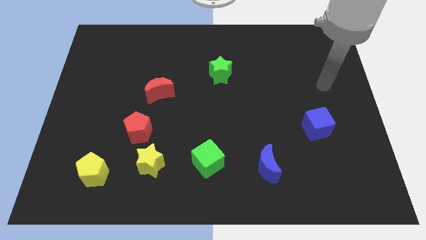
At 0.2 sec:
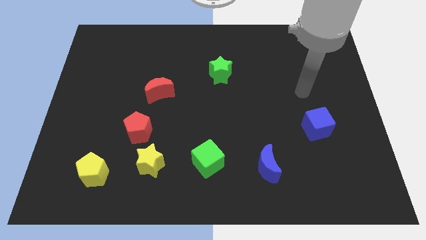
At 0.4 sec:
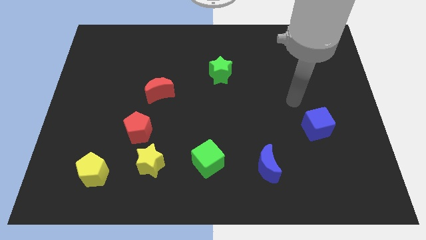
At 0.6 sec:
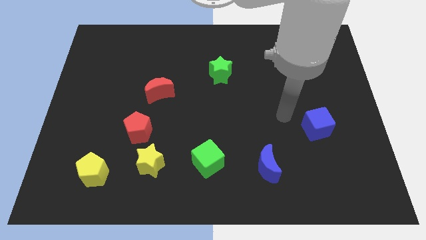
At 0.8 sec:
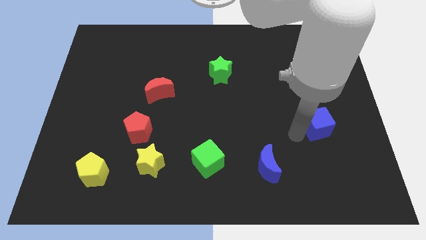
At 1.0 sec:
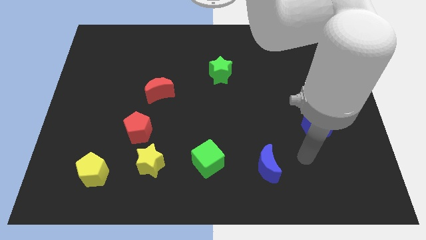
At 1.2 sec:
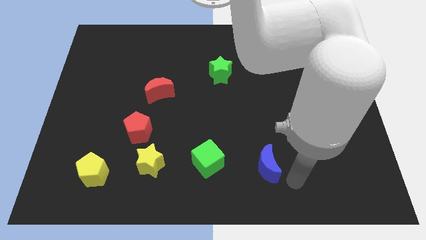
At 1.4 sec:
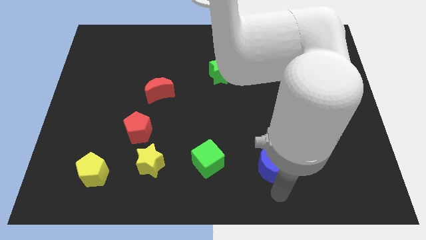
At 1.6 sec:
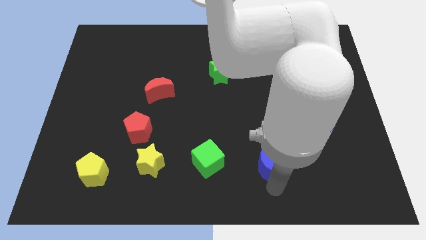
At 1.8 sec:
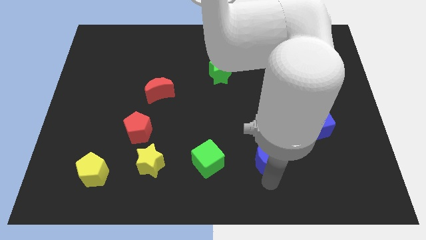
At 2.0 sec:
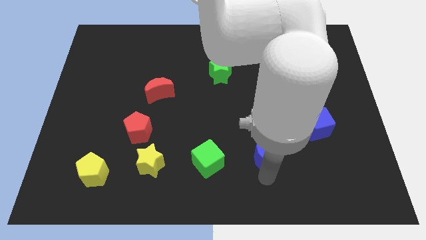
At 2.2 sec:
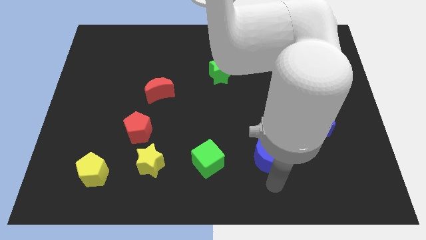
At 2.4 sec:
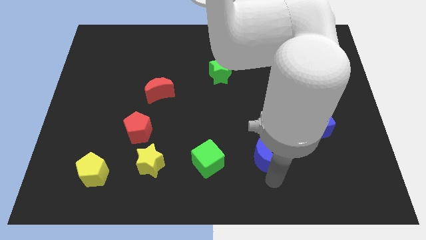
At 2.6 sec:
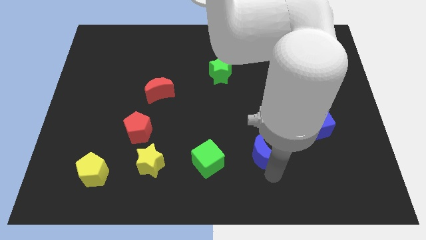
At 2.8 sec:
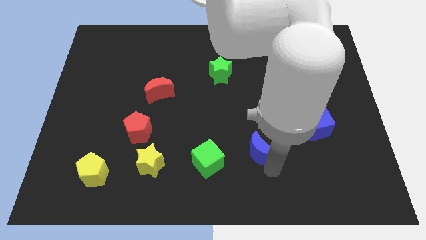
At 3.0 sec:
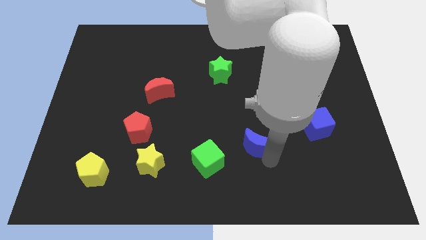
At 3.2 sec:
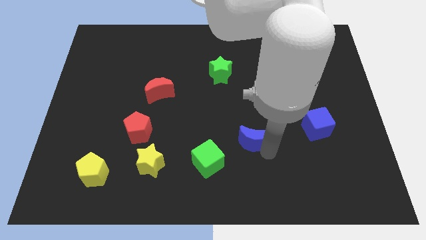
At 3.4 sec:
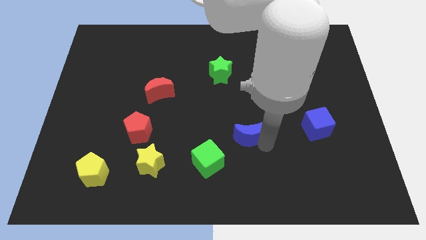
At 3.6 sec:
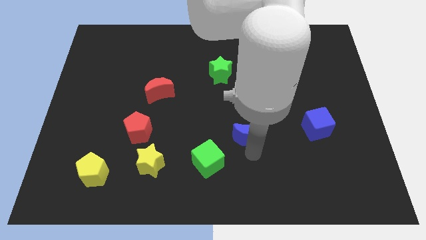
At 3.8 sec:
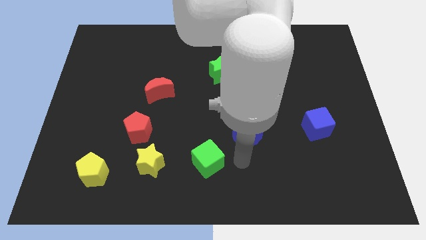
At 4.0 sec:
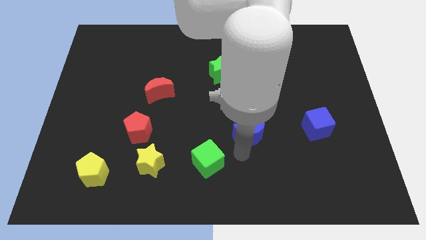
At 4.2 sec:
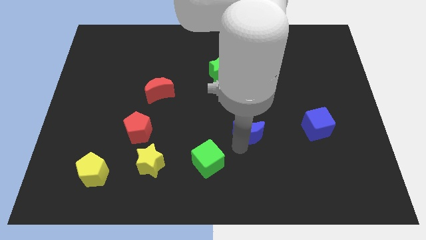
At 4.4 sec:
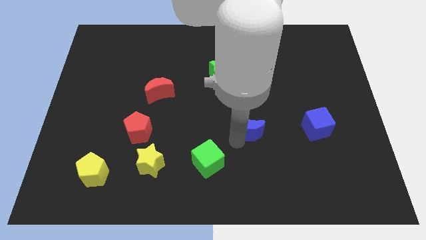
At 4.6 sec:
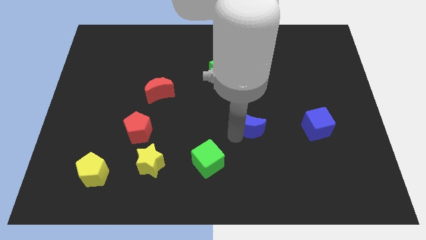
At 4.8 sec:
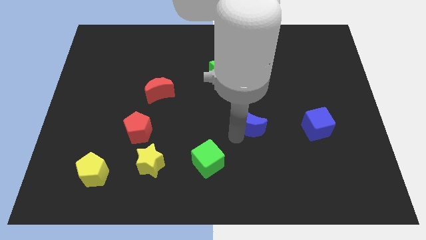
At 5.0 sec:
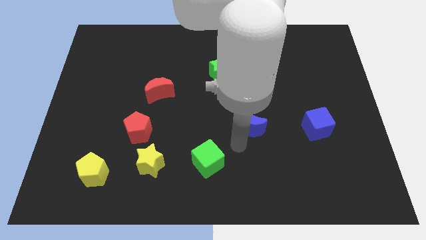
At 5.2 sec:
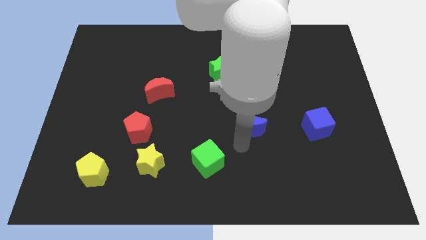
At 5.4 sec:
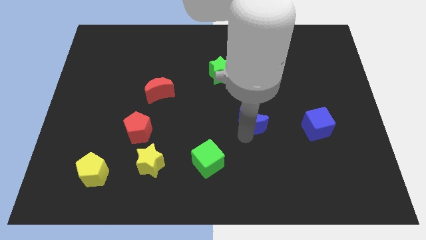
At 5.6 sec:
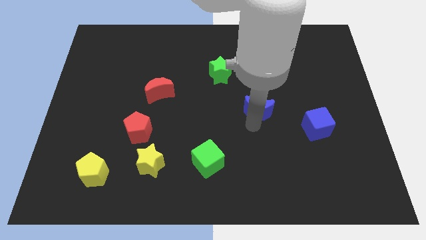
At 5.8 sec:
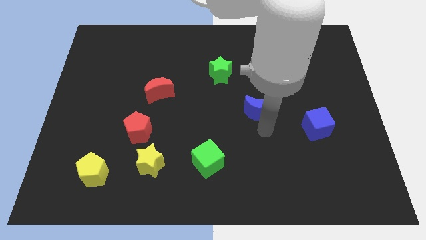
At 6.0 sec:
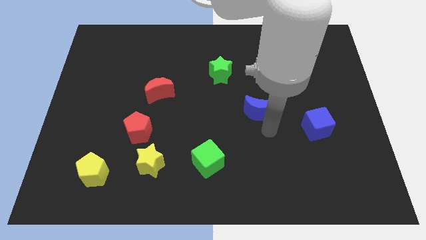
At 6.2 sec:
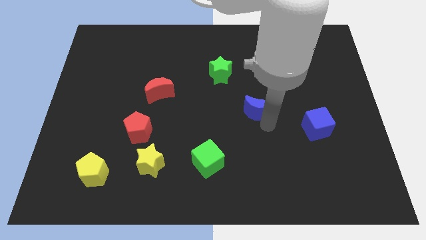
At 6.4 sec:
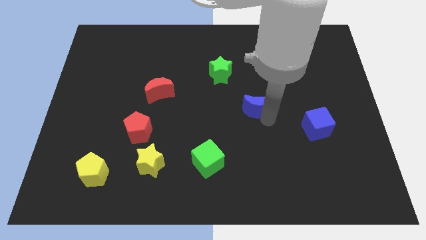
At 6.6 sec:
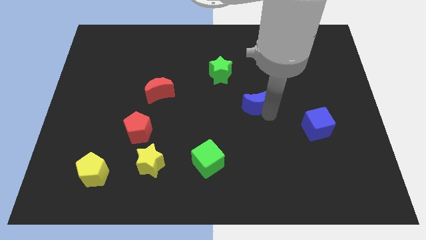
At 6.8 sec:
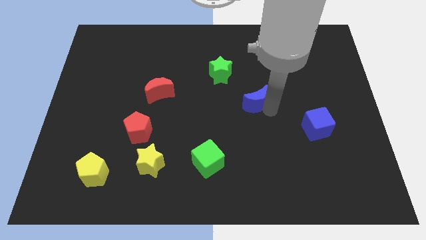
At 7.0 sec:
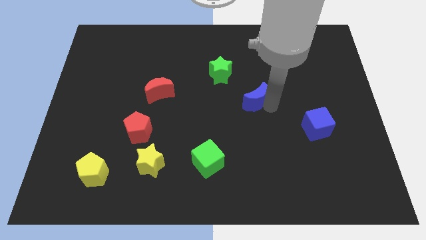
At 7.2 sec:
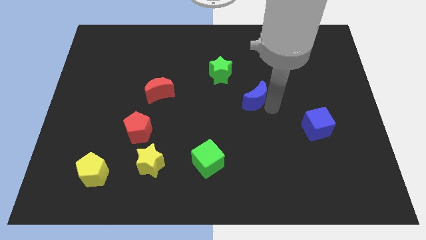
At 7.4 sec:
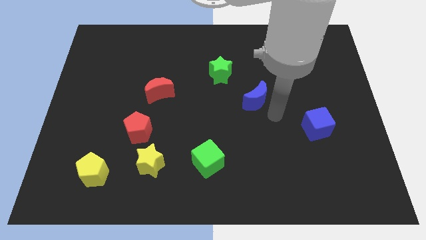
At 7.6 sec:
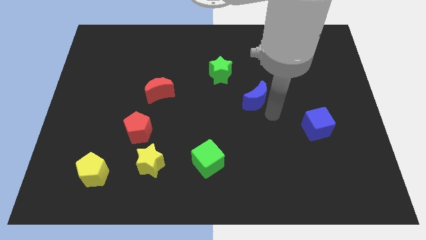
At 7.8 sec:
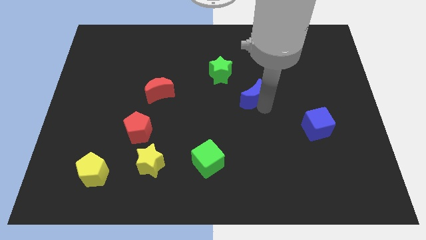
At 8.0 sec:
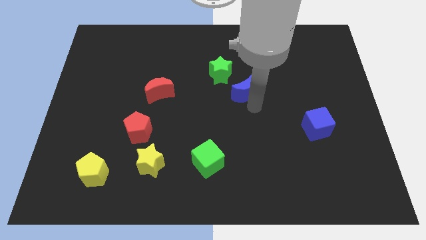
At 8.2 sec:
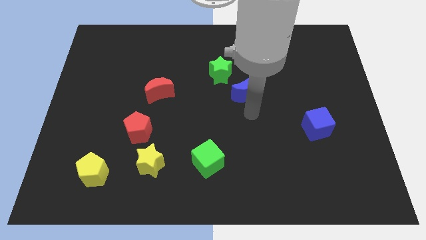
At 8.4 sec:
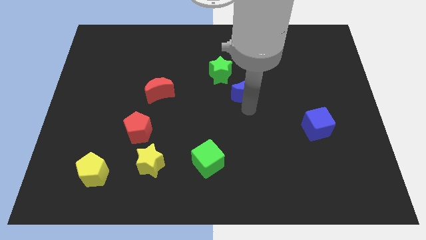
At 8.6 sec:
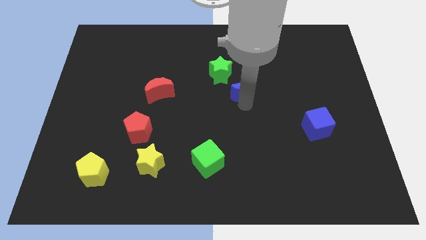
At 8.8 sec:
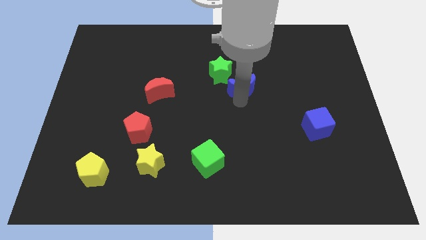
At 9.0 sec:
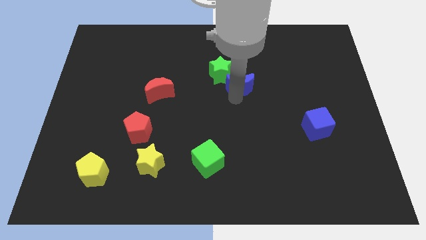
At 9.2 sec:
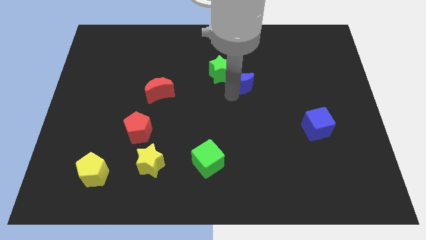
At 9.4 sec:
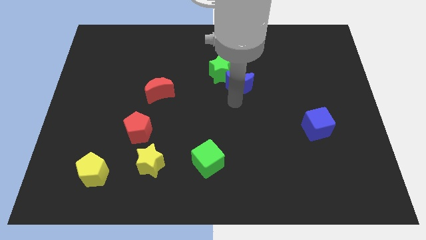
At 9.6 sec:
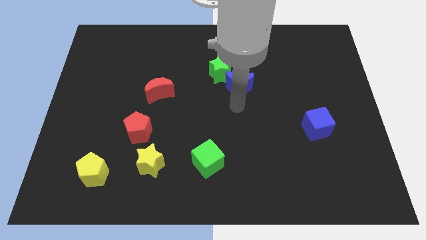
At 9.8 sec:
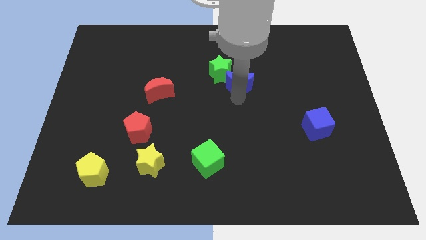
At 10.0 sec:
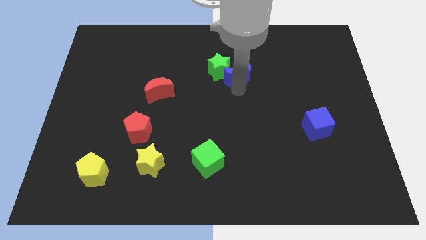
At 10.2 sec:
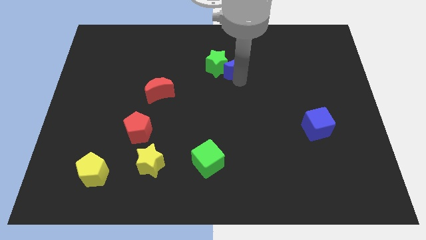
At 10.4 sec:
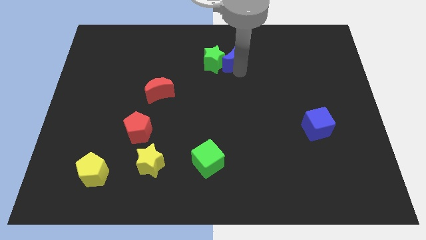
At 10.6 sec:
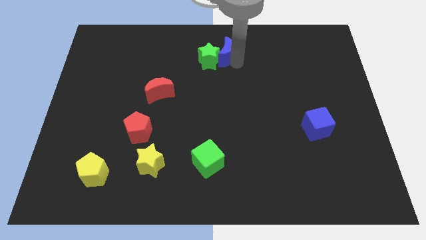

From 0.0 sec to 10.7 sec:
push the blue moon to the top
